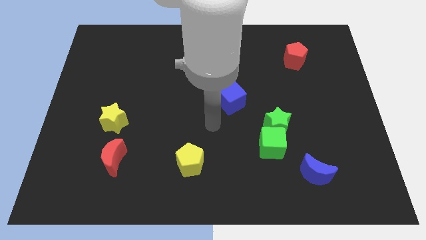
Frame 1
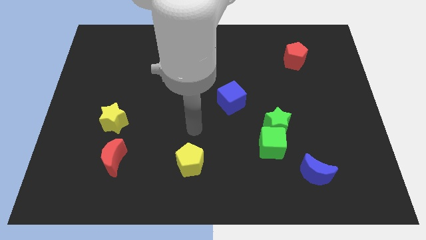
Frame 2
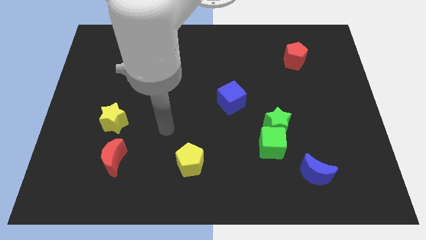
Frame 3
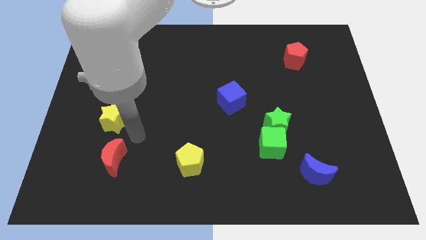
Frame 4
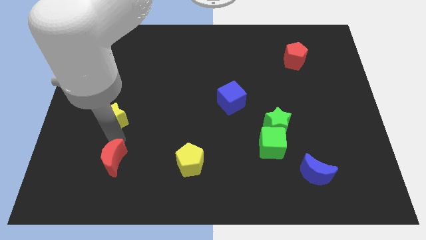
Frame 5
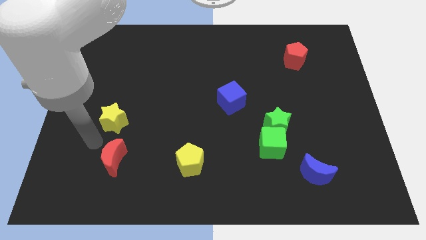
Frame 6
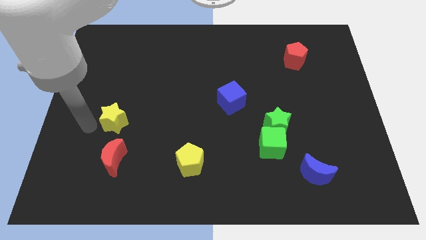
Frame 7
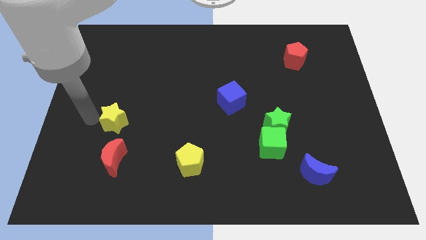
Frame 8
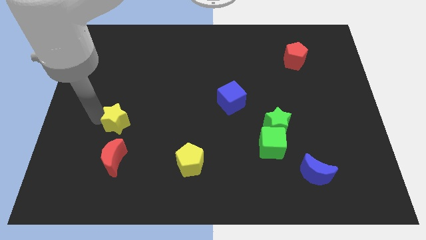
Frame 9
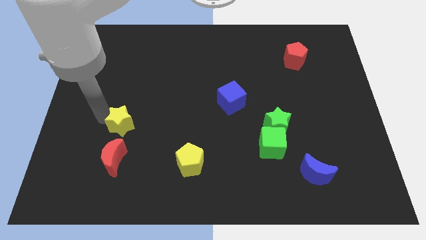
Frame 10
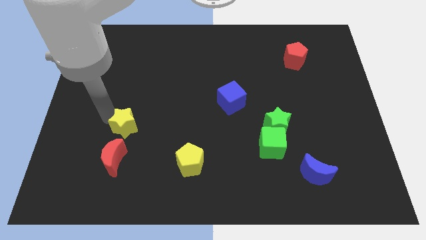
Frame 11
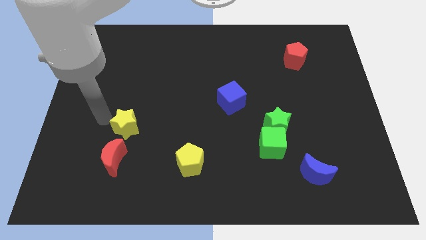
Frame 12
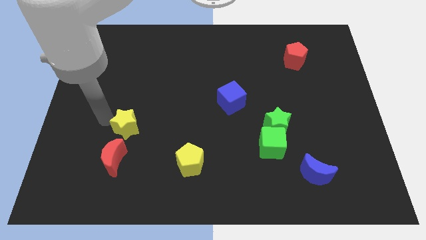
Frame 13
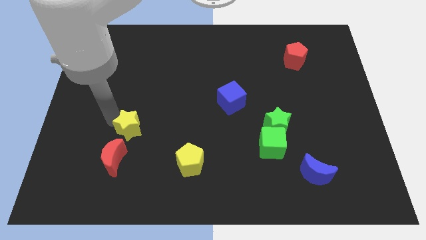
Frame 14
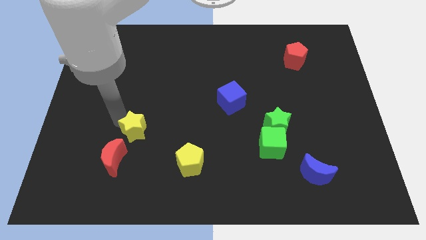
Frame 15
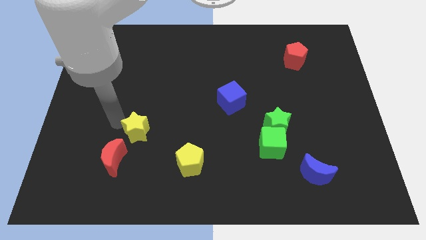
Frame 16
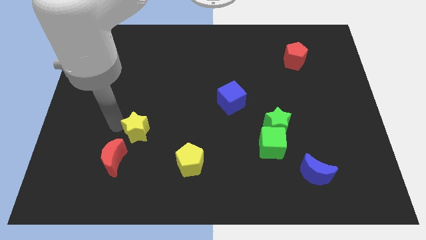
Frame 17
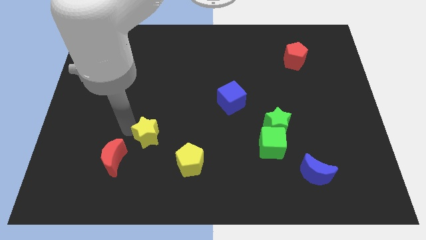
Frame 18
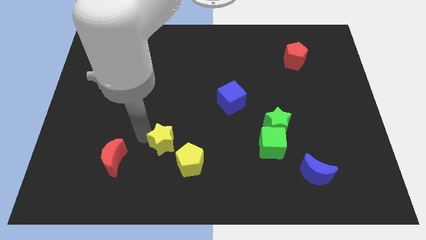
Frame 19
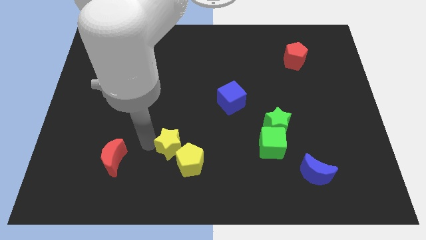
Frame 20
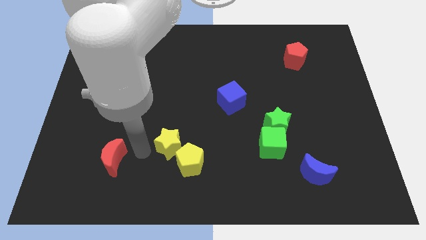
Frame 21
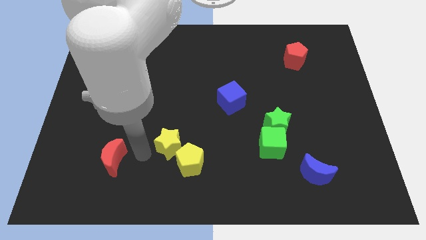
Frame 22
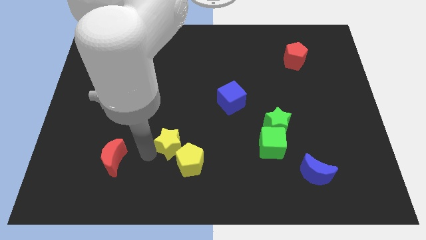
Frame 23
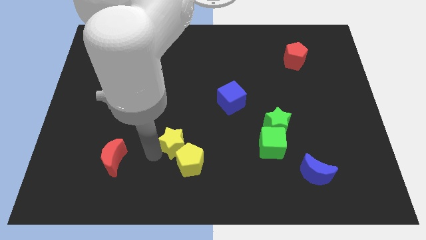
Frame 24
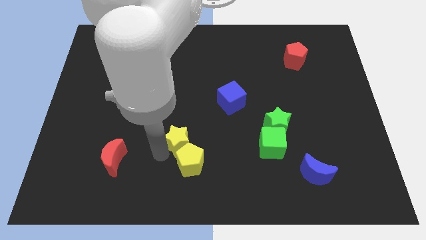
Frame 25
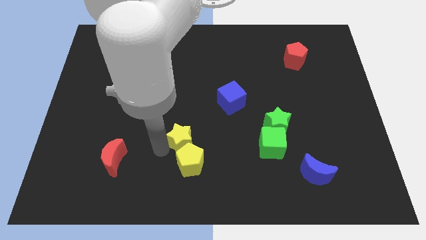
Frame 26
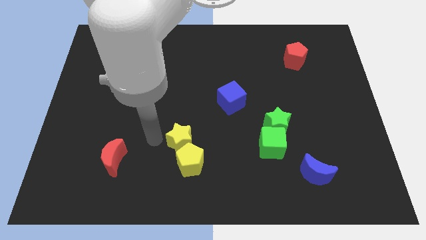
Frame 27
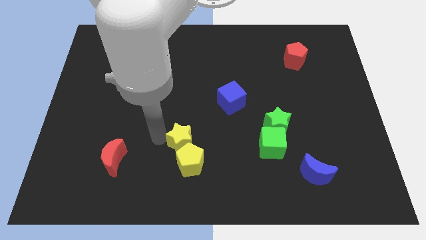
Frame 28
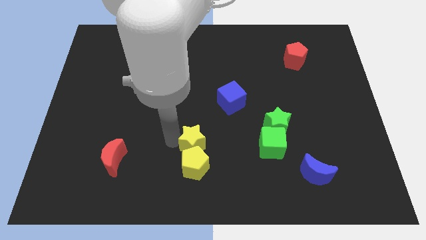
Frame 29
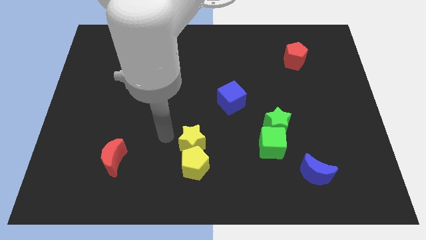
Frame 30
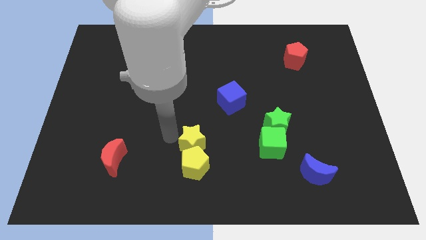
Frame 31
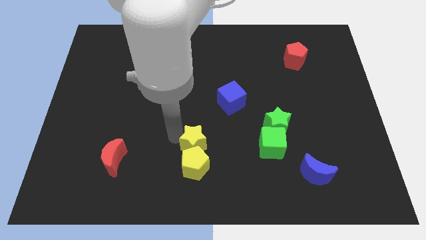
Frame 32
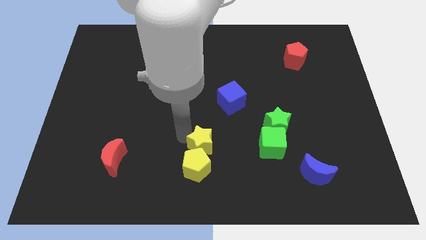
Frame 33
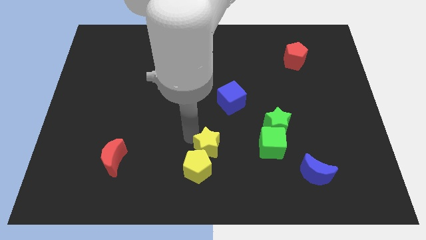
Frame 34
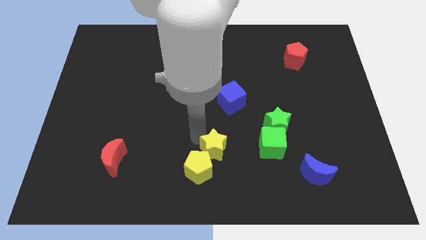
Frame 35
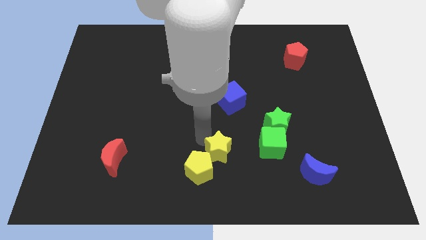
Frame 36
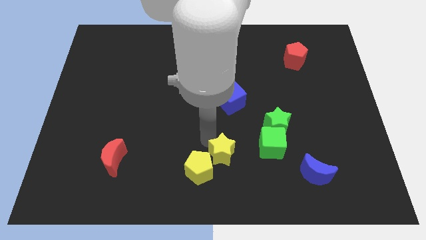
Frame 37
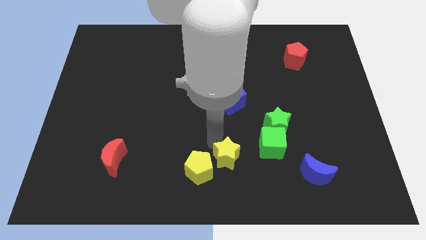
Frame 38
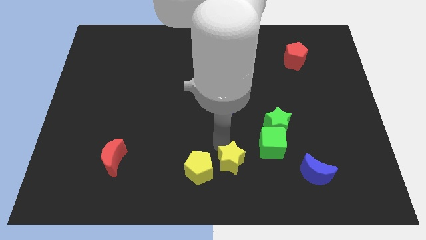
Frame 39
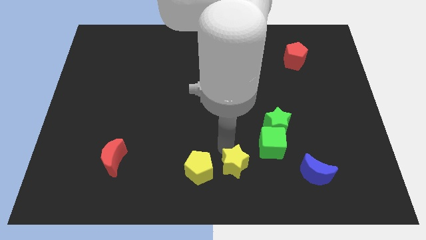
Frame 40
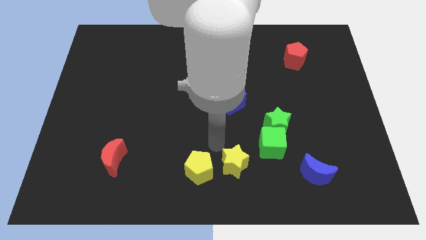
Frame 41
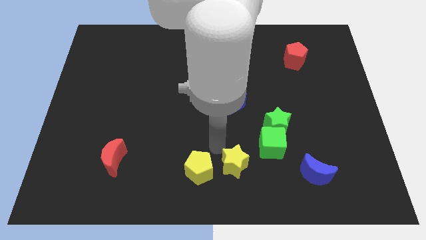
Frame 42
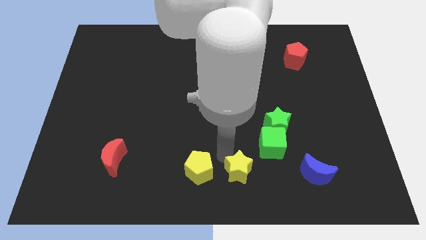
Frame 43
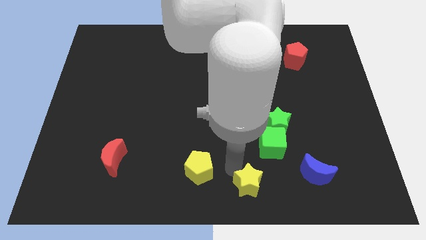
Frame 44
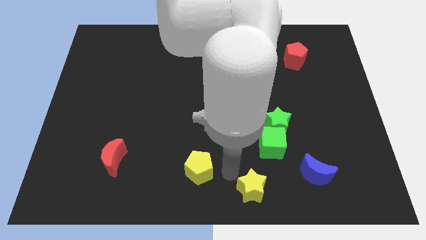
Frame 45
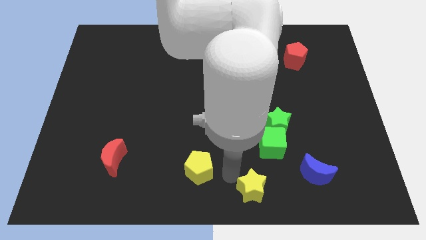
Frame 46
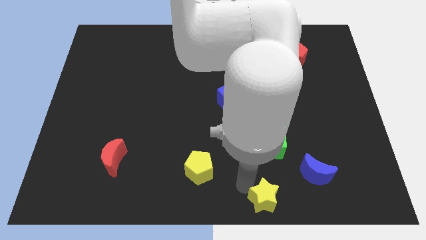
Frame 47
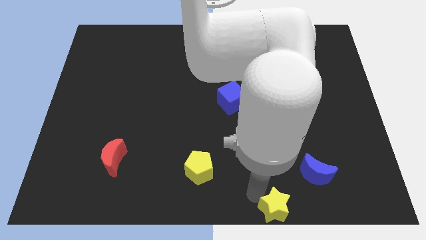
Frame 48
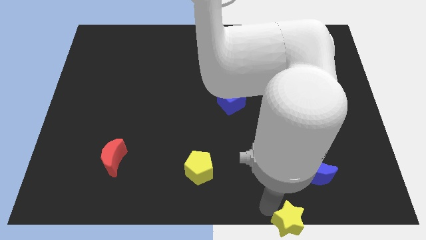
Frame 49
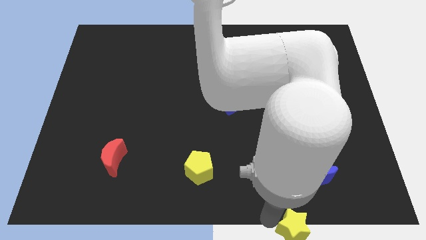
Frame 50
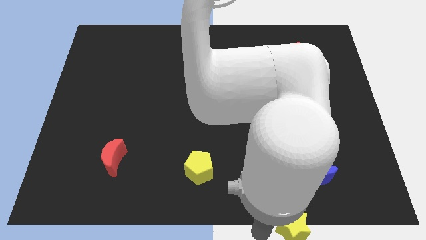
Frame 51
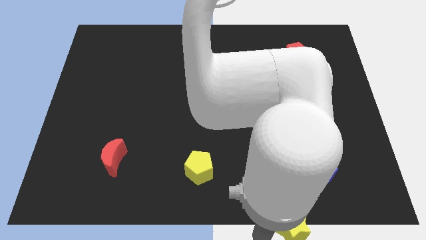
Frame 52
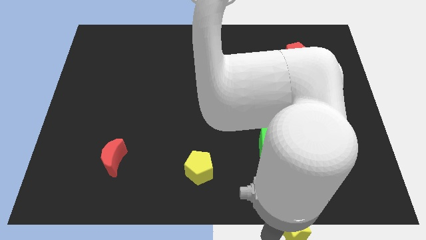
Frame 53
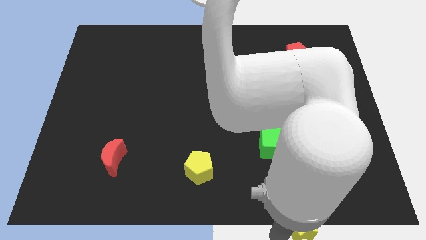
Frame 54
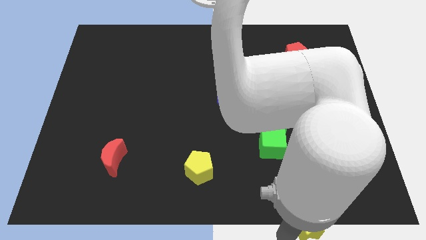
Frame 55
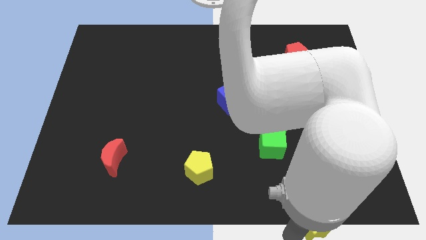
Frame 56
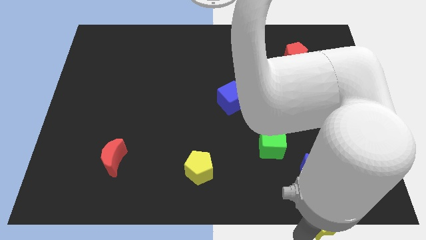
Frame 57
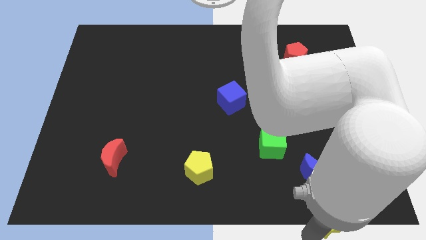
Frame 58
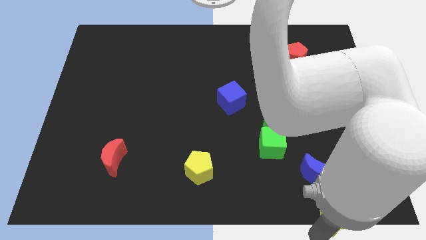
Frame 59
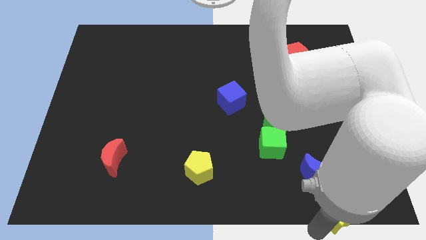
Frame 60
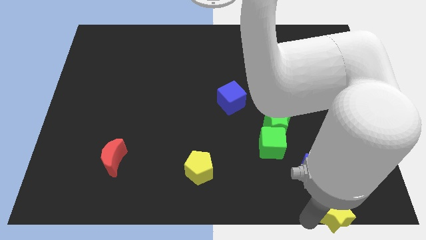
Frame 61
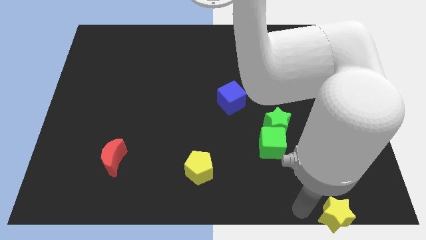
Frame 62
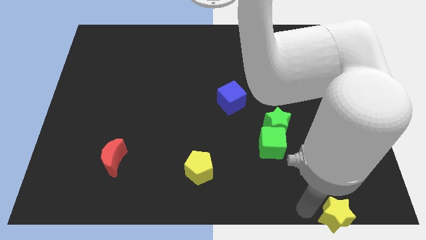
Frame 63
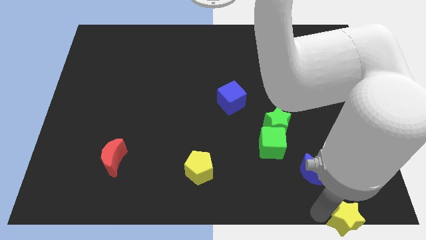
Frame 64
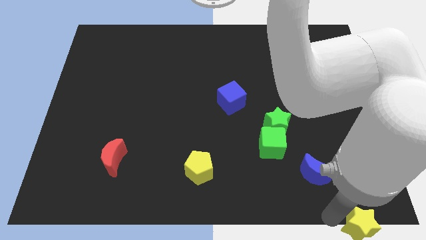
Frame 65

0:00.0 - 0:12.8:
slide the yellow star to the bottom right corner
